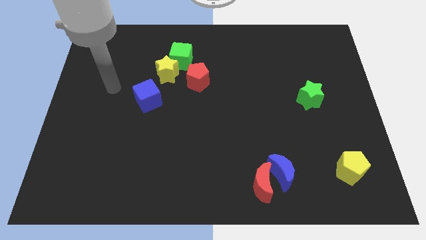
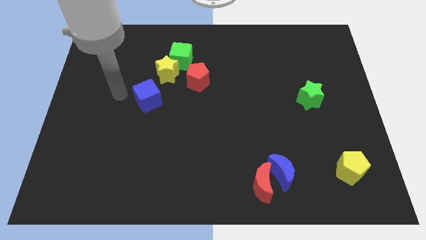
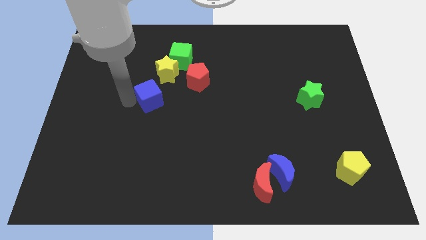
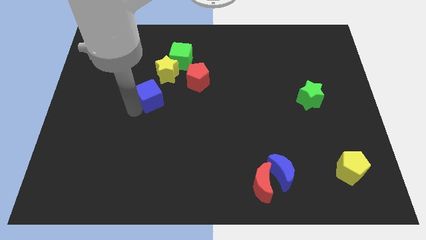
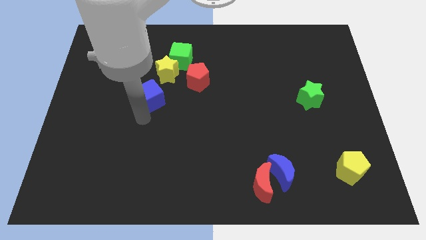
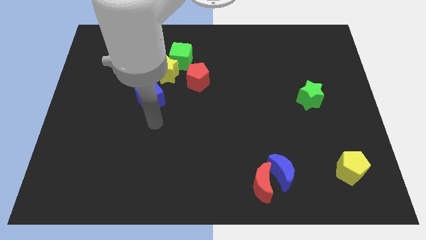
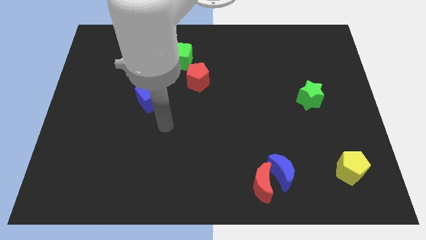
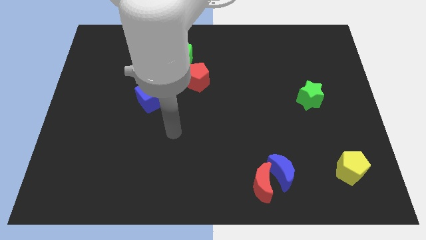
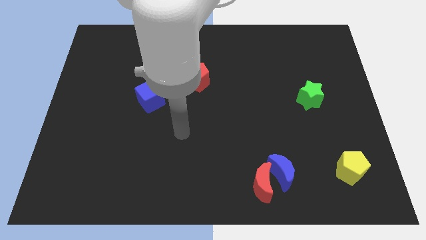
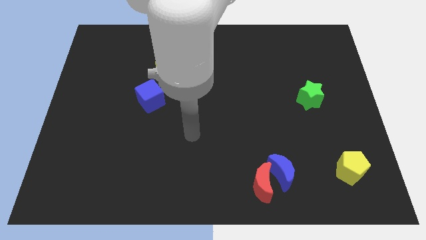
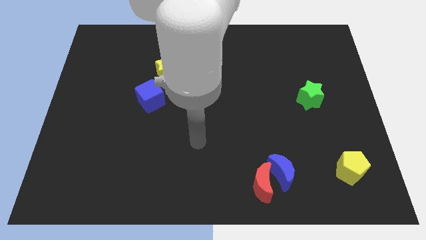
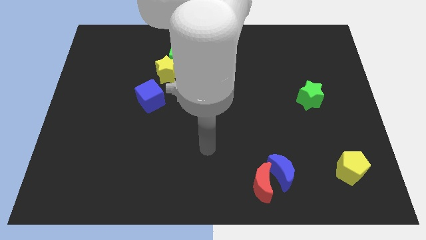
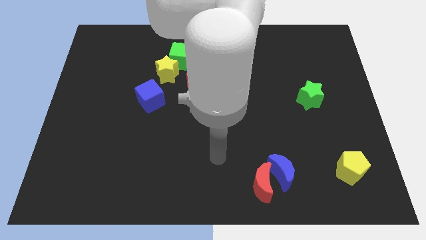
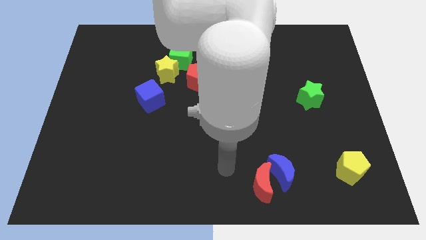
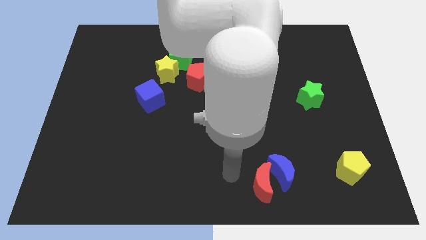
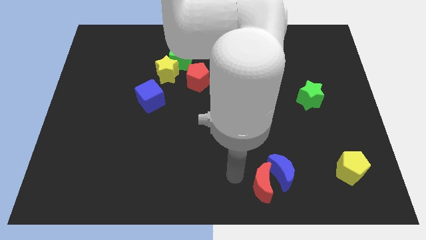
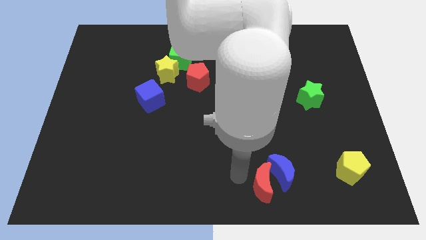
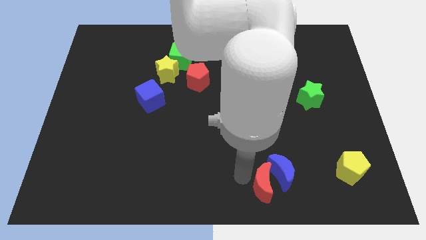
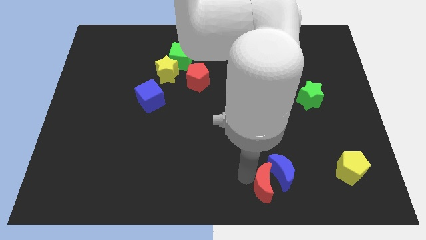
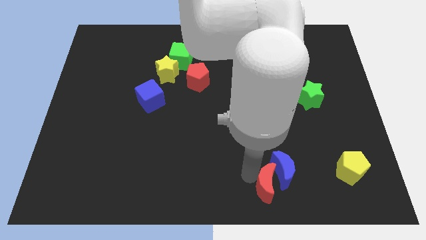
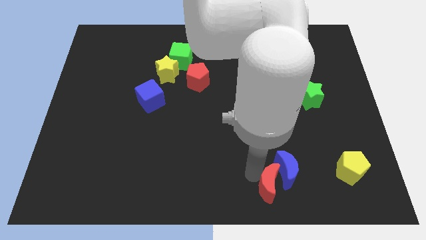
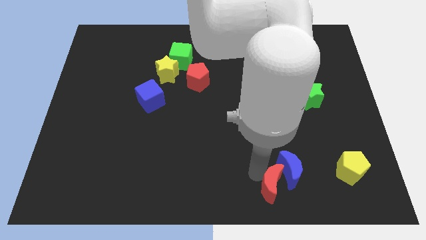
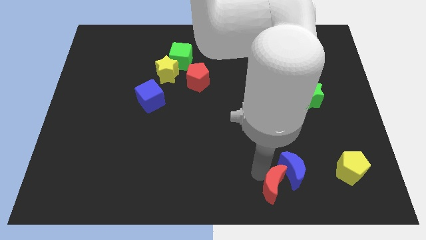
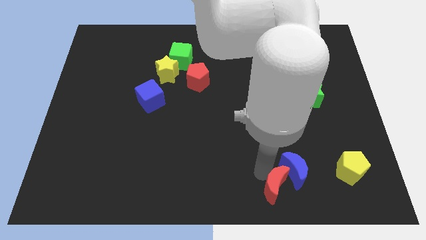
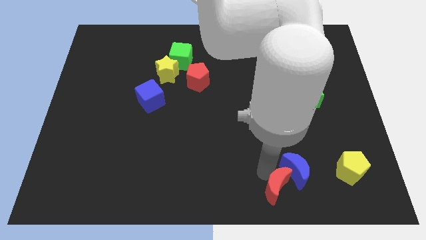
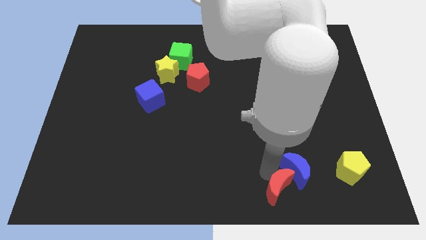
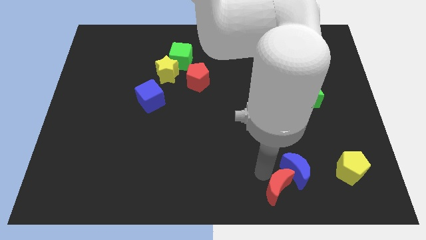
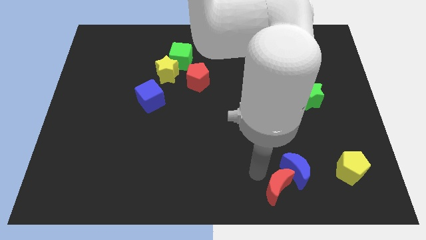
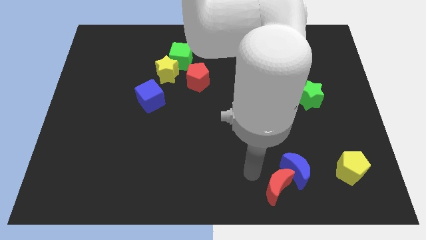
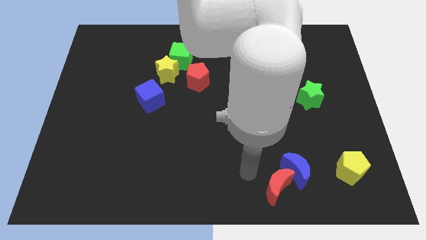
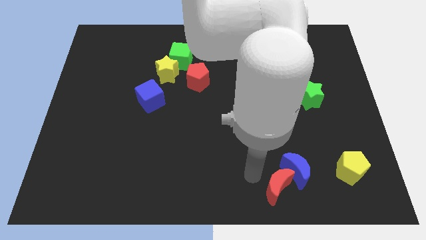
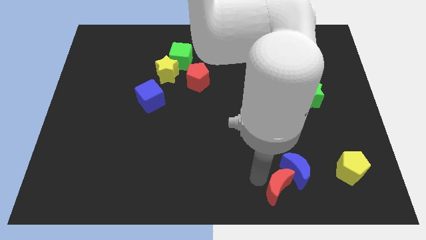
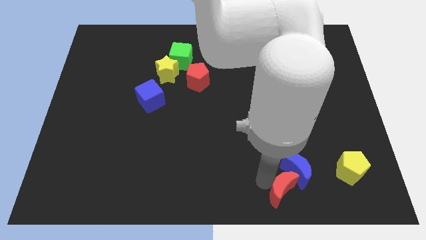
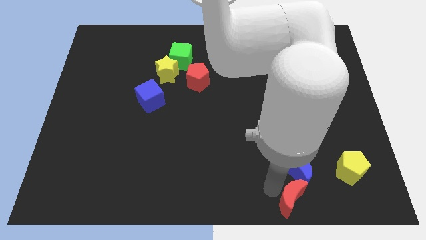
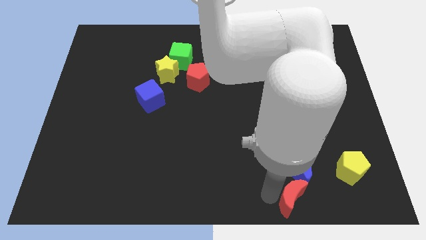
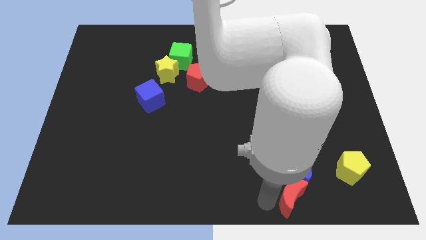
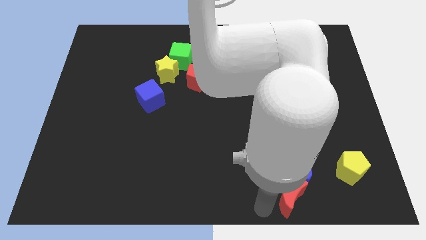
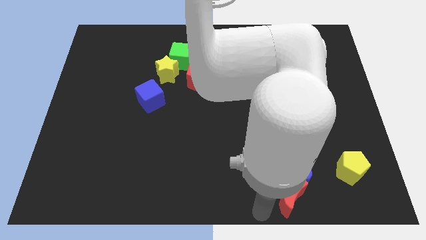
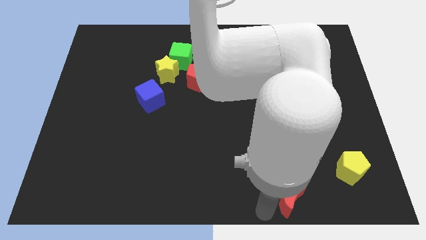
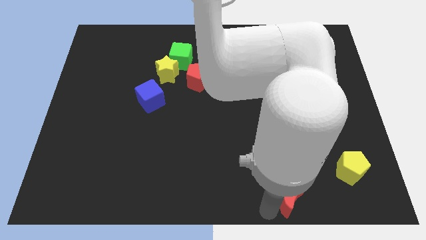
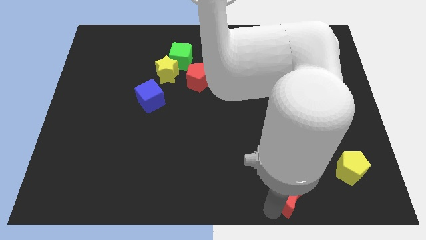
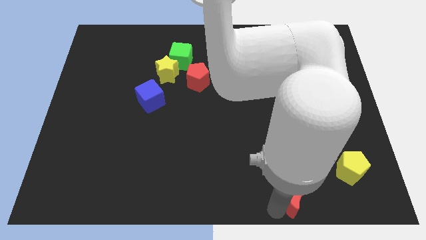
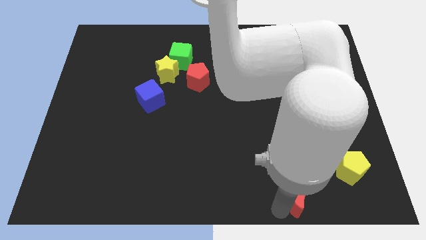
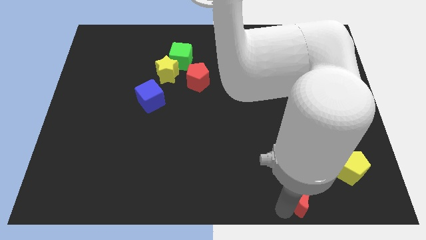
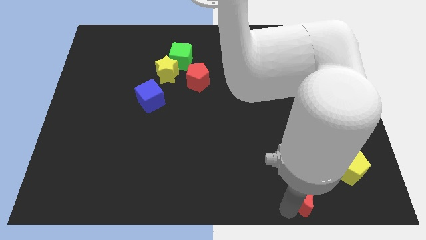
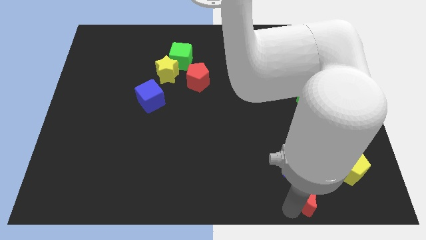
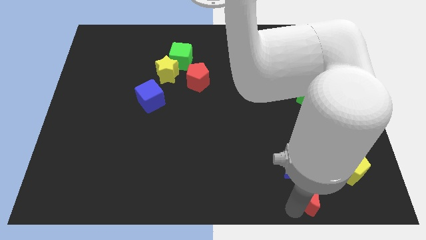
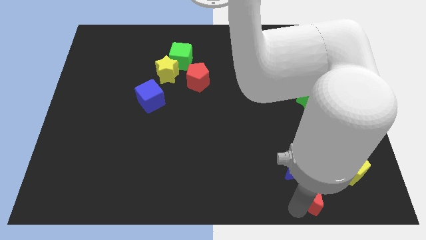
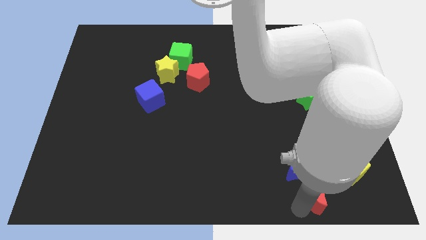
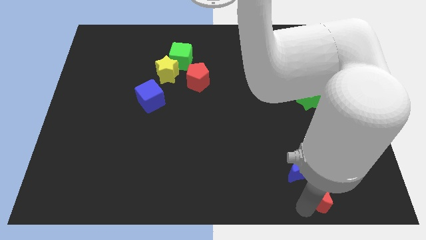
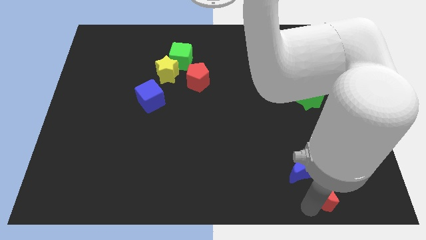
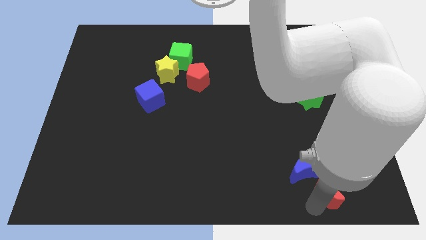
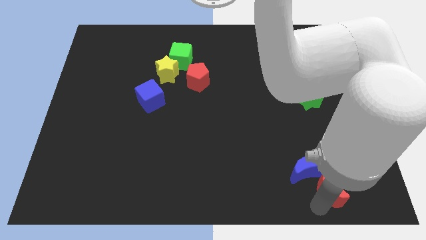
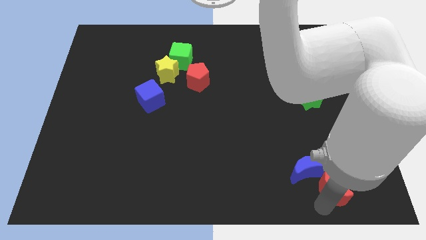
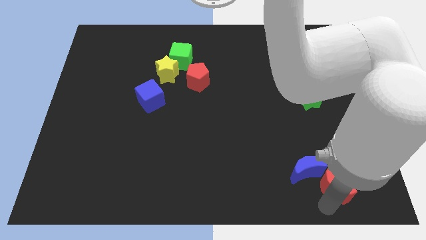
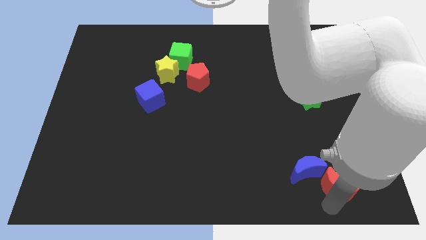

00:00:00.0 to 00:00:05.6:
move the red moon next to the yellow pentagon

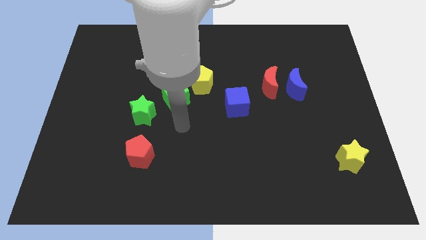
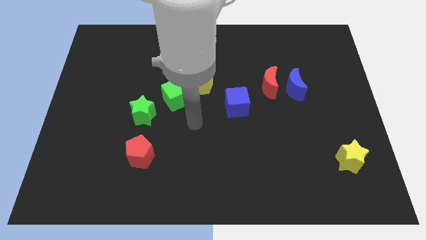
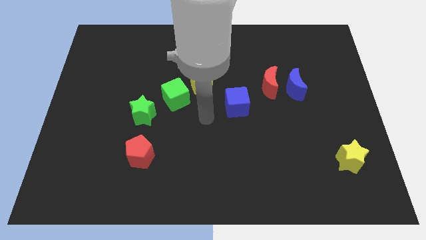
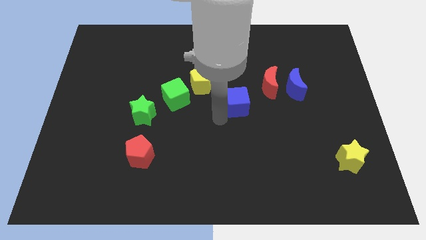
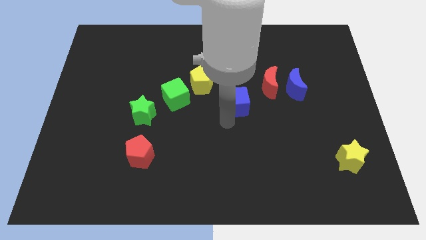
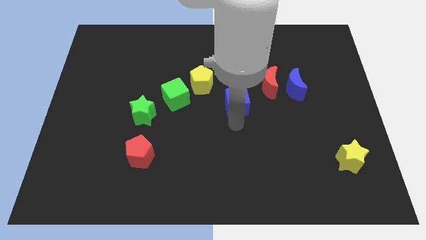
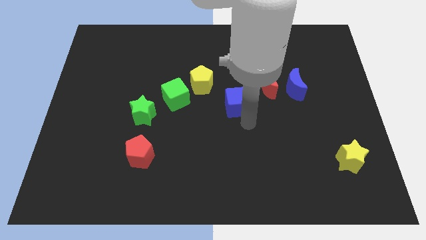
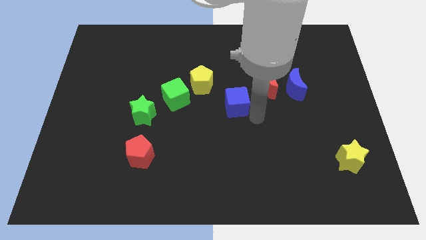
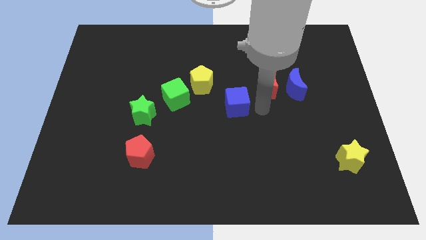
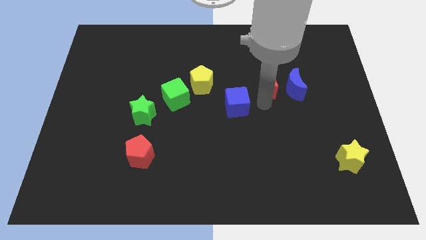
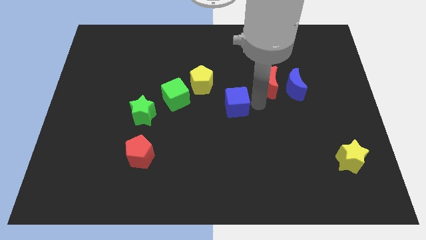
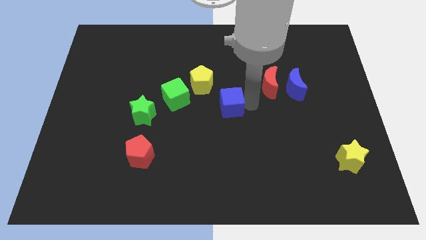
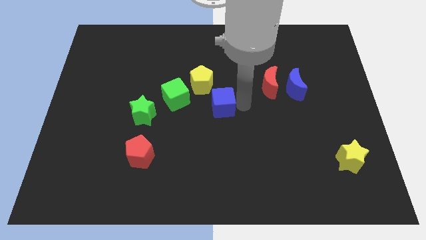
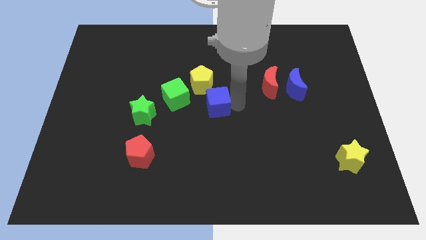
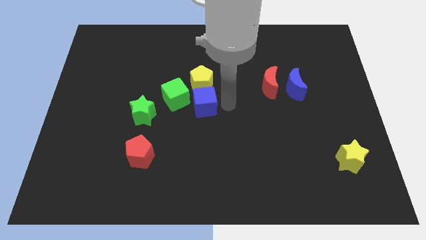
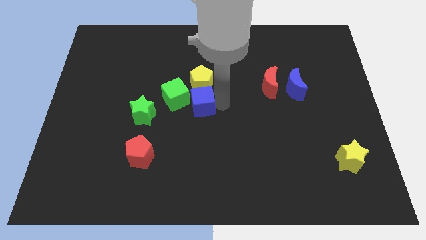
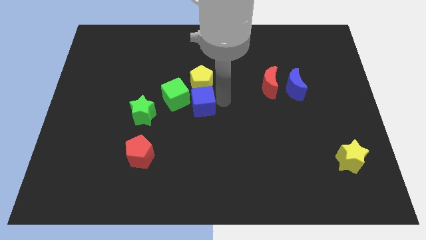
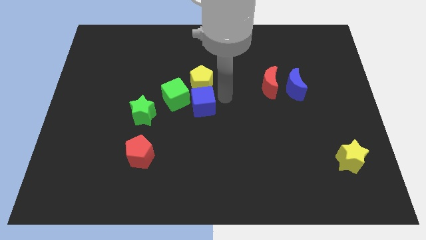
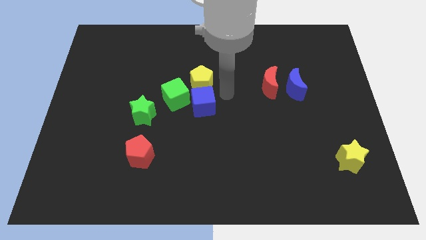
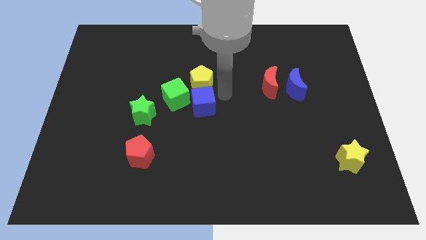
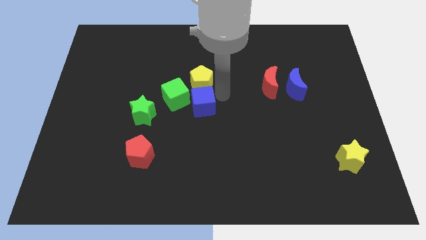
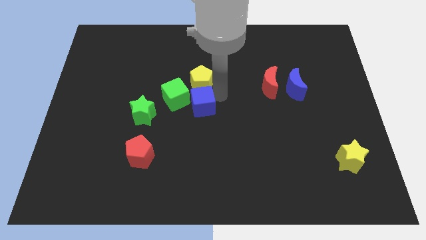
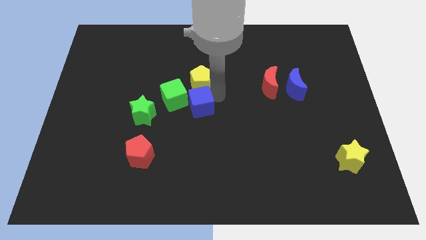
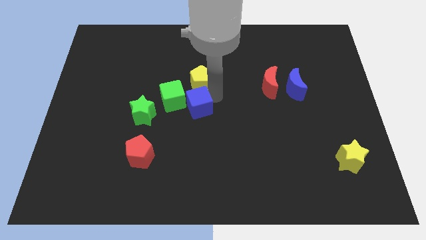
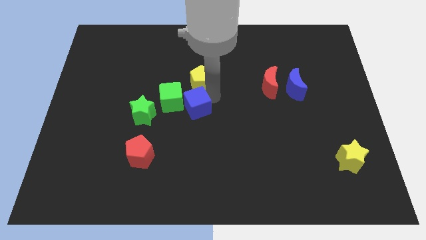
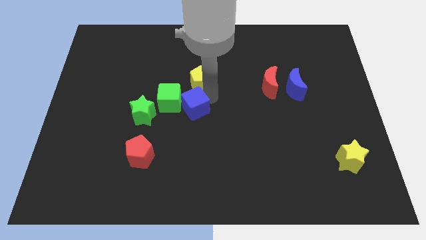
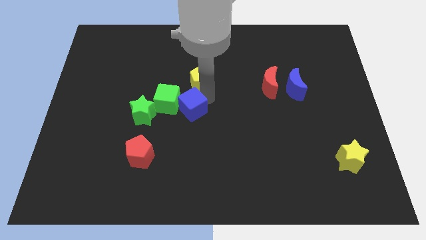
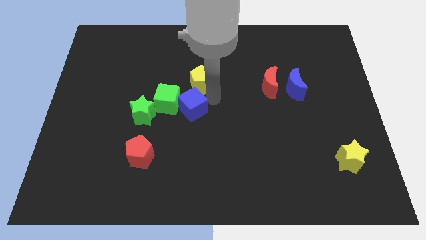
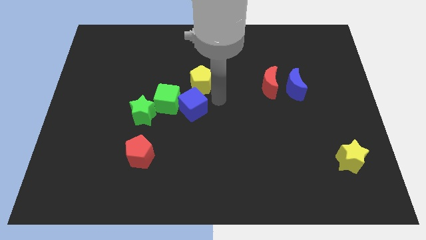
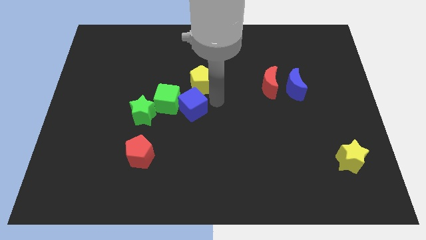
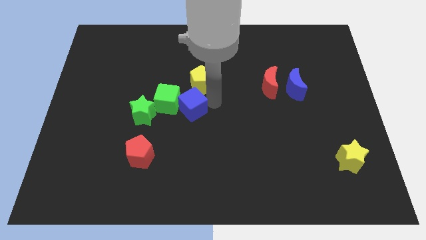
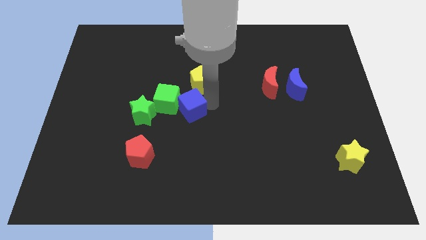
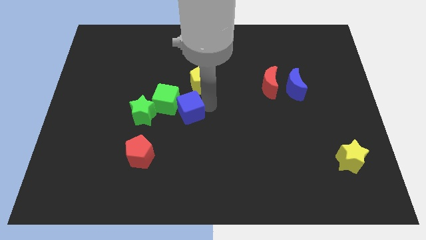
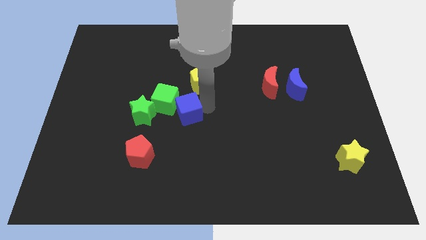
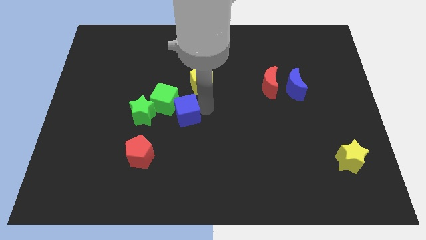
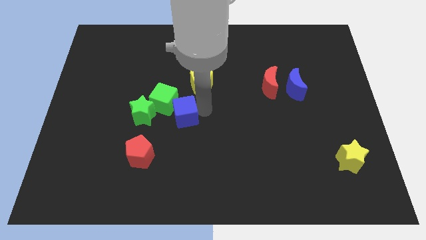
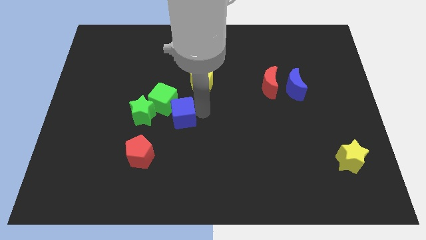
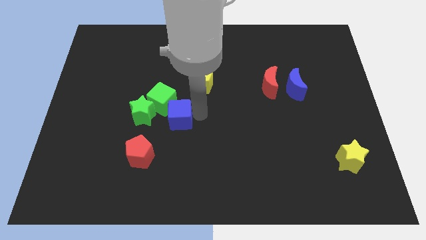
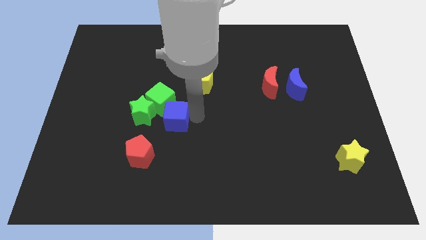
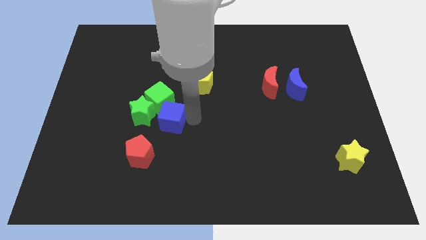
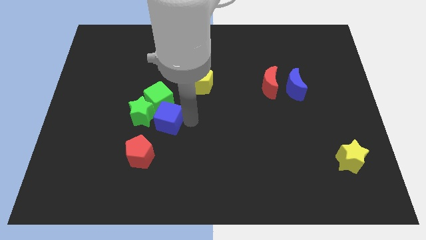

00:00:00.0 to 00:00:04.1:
push the blue cube next to the green star
